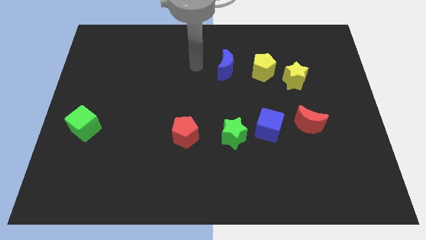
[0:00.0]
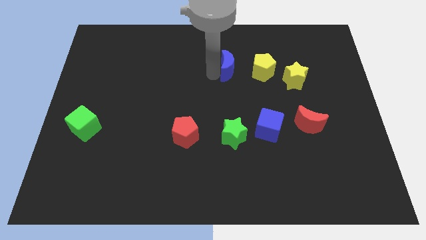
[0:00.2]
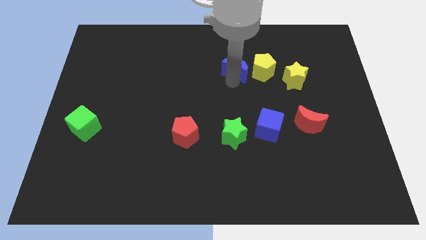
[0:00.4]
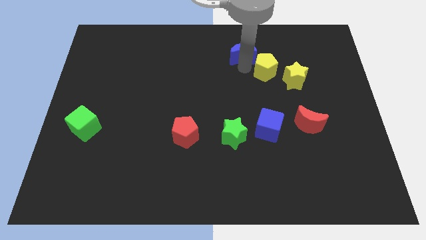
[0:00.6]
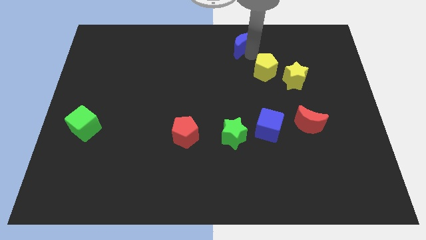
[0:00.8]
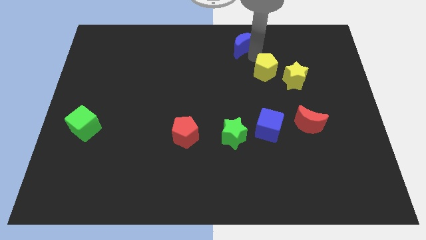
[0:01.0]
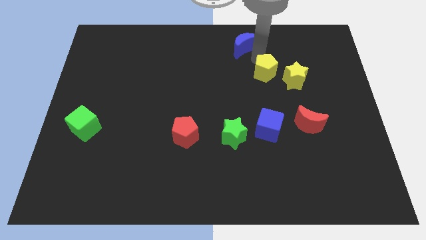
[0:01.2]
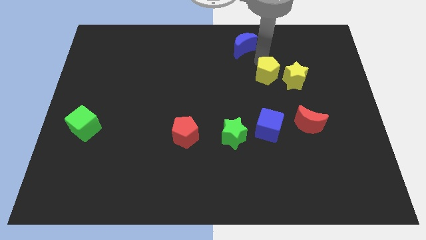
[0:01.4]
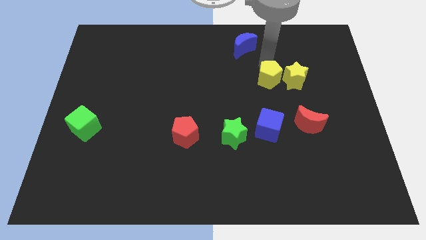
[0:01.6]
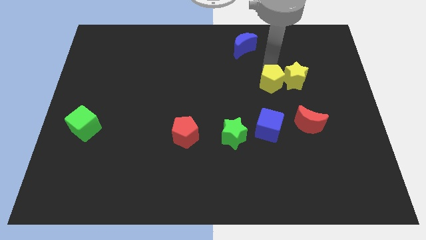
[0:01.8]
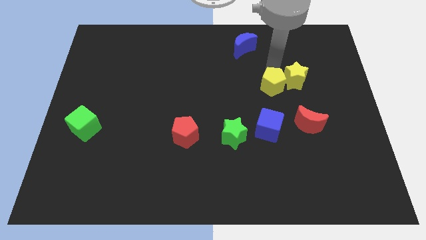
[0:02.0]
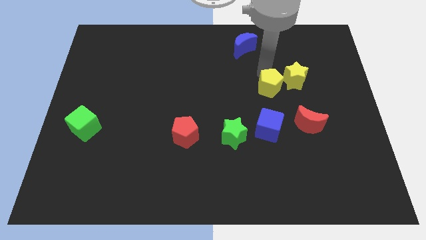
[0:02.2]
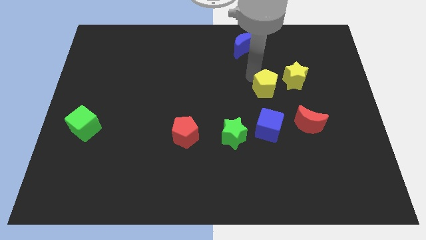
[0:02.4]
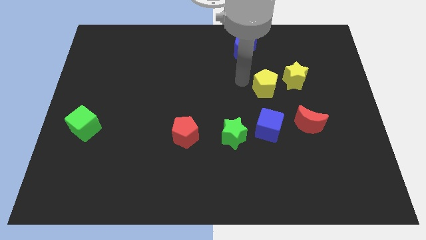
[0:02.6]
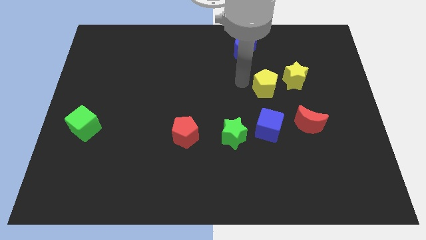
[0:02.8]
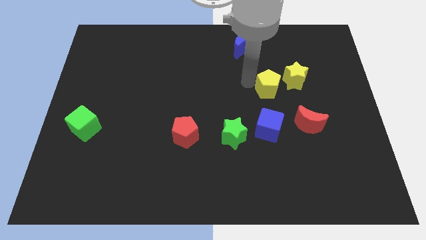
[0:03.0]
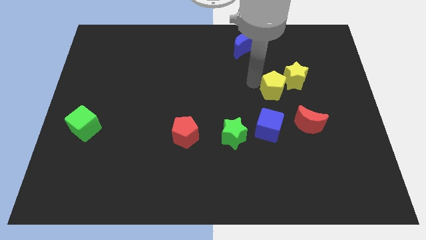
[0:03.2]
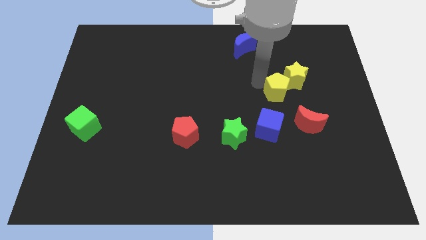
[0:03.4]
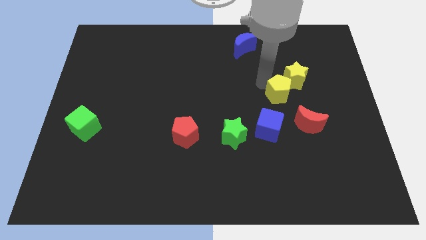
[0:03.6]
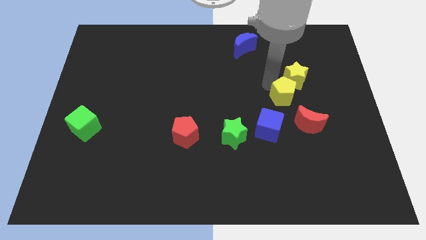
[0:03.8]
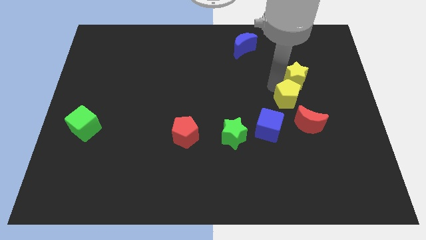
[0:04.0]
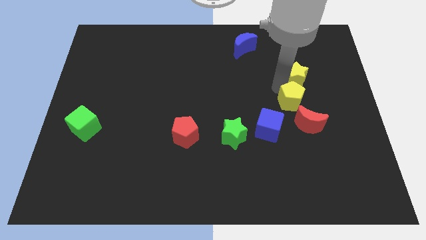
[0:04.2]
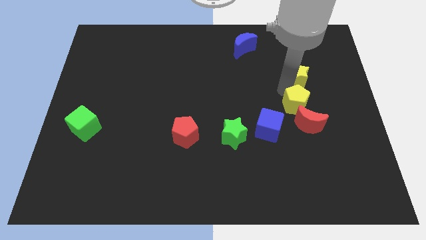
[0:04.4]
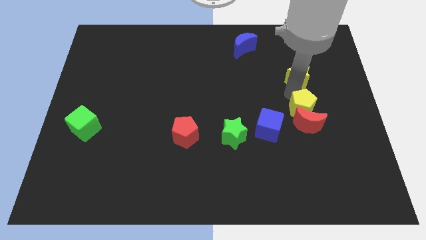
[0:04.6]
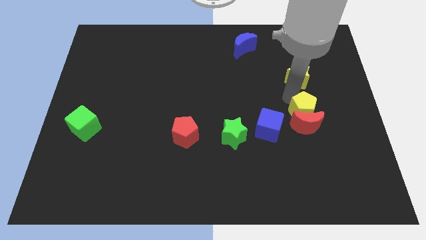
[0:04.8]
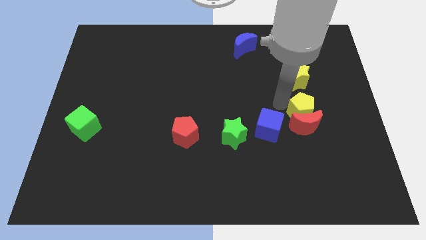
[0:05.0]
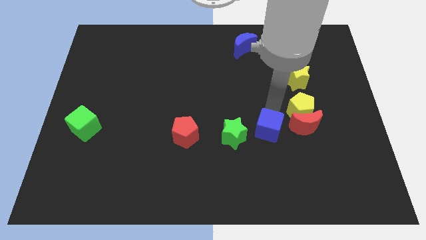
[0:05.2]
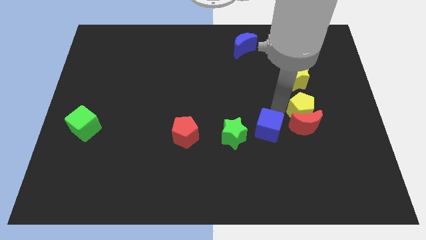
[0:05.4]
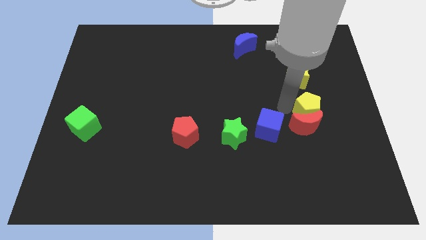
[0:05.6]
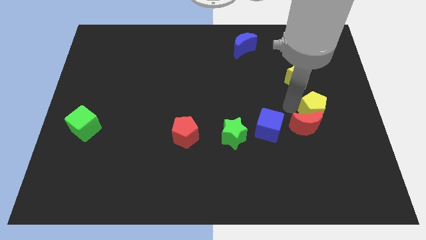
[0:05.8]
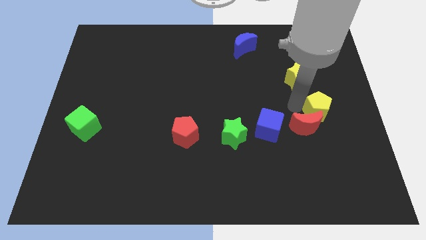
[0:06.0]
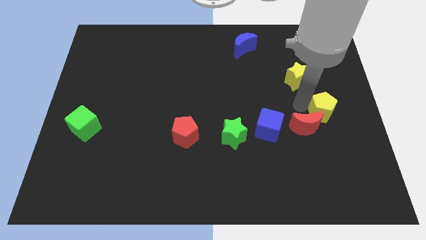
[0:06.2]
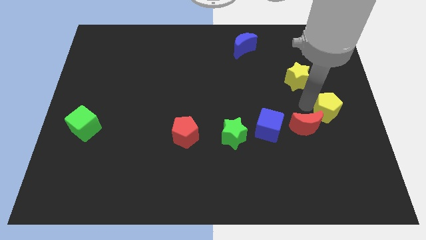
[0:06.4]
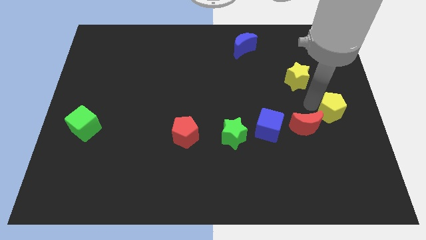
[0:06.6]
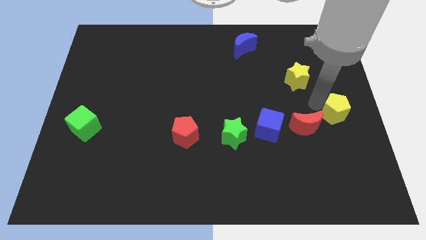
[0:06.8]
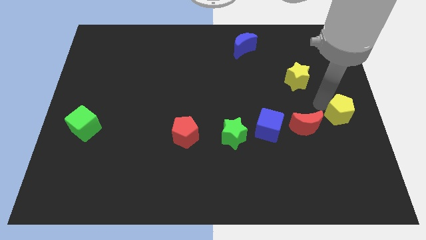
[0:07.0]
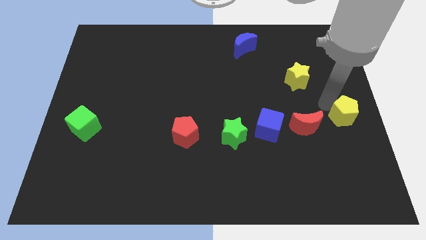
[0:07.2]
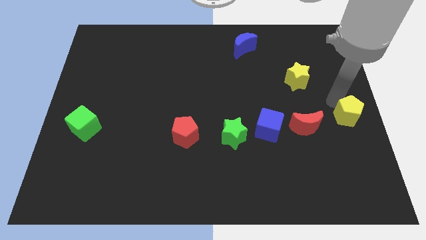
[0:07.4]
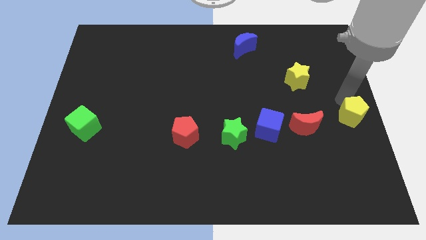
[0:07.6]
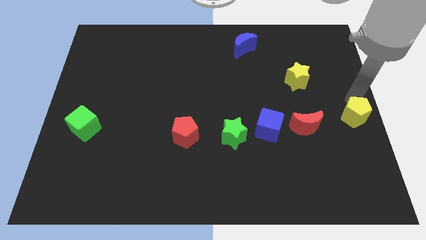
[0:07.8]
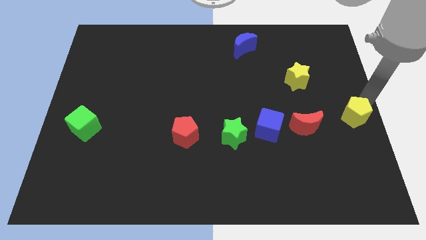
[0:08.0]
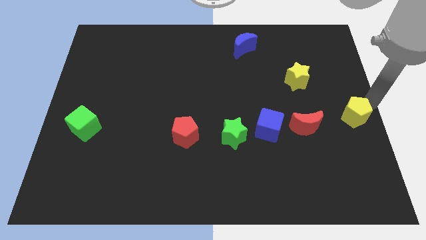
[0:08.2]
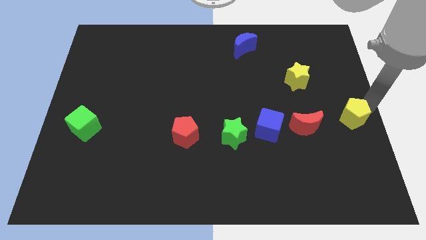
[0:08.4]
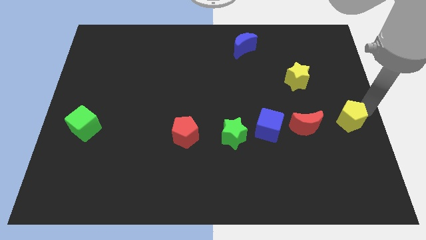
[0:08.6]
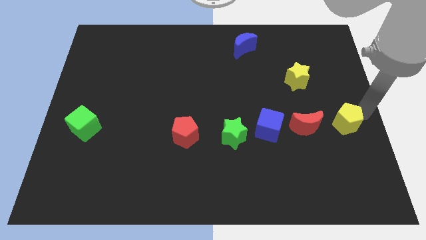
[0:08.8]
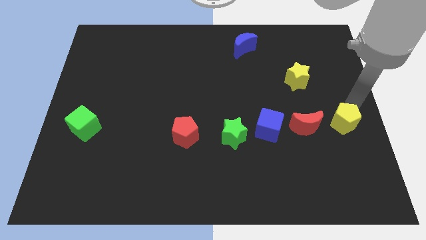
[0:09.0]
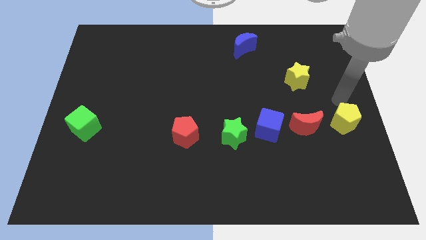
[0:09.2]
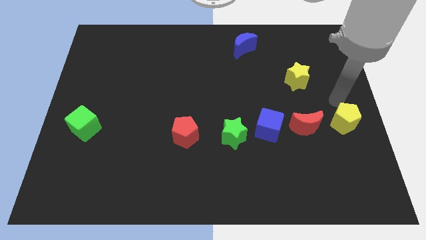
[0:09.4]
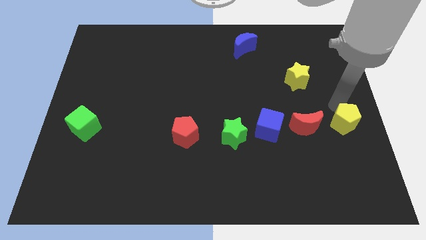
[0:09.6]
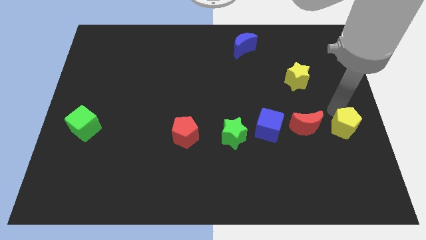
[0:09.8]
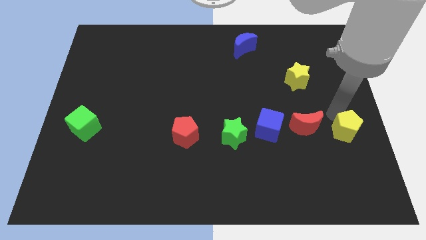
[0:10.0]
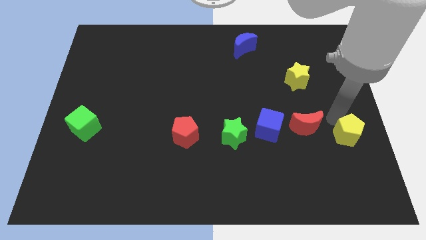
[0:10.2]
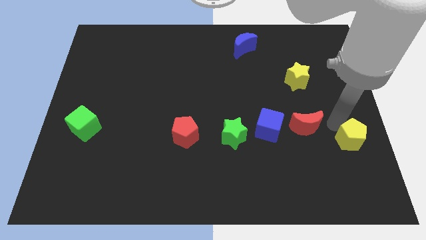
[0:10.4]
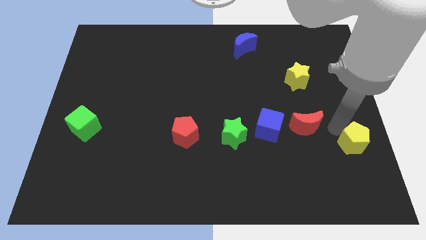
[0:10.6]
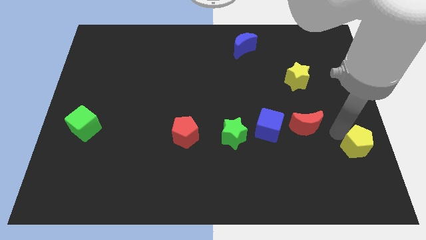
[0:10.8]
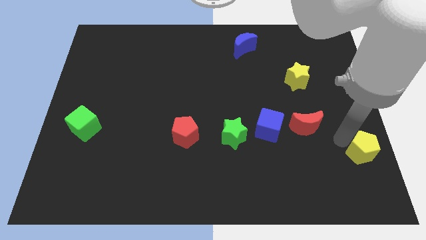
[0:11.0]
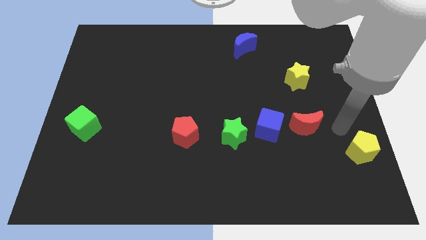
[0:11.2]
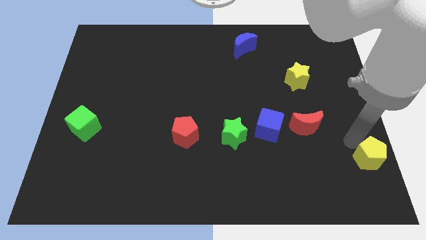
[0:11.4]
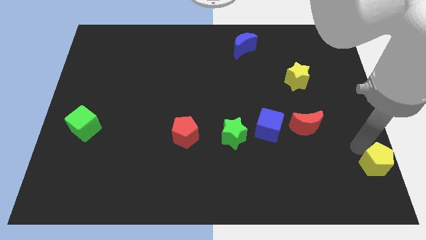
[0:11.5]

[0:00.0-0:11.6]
push the yellow pentagon to the lower right corner
